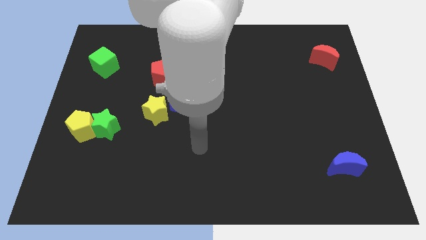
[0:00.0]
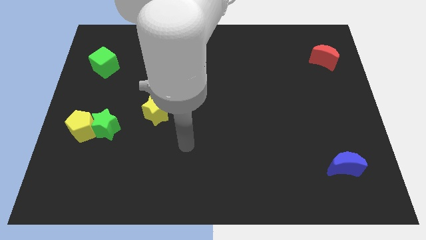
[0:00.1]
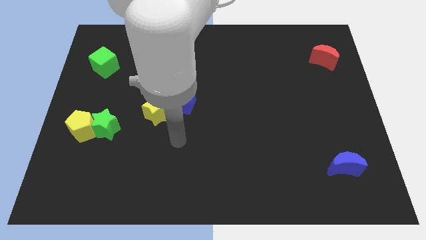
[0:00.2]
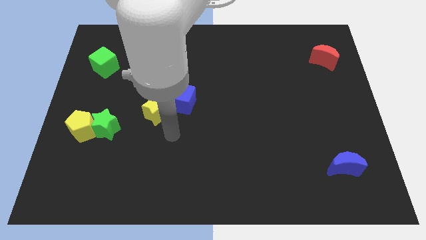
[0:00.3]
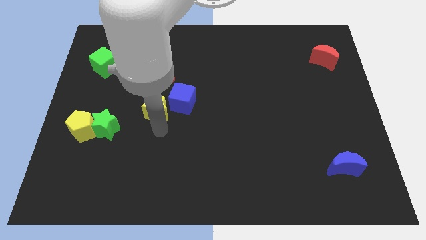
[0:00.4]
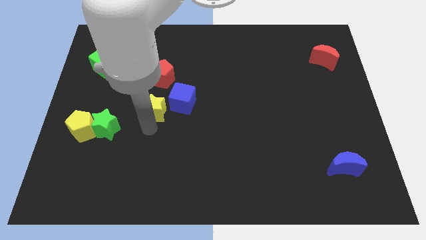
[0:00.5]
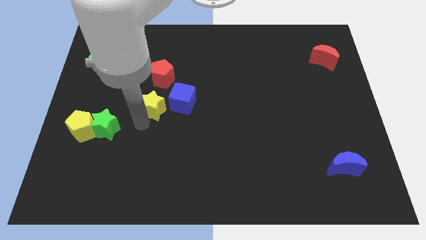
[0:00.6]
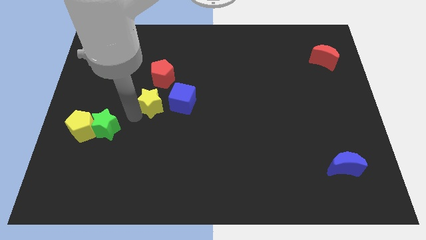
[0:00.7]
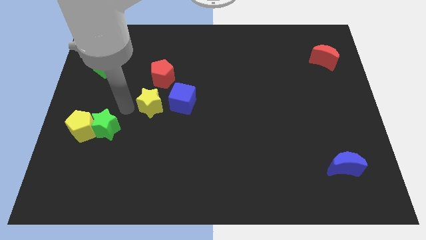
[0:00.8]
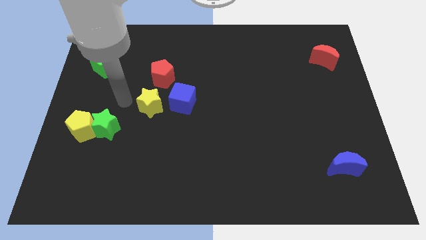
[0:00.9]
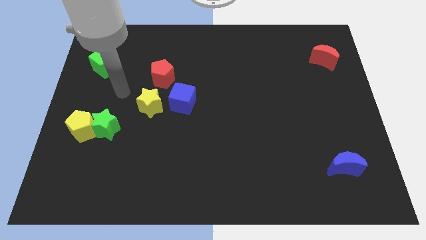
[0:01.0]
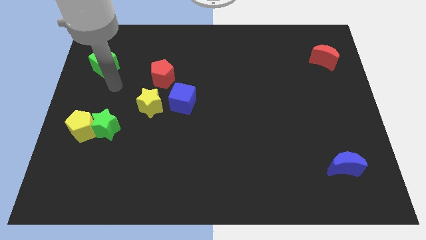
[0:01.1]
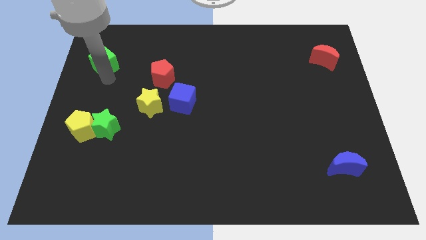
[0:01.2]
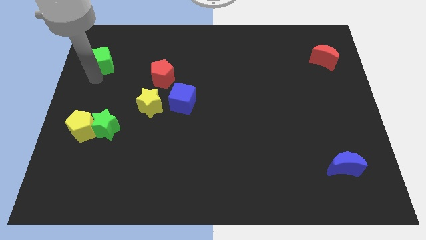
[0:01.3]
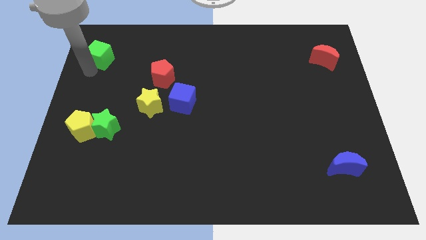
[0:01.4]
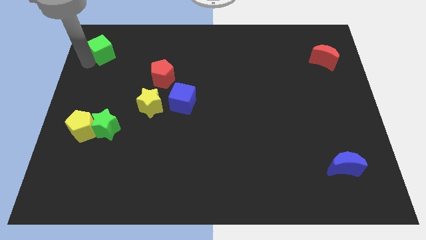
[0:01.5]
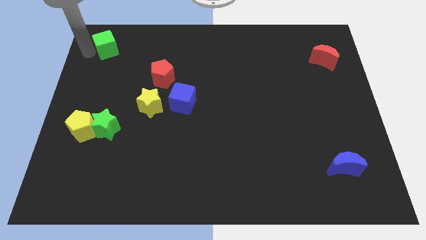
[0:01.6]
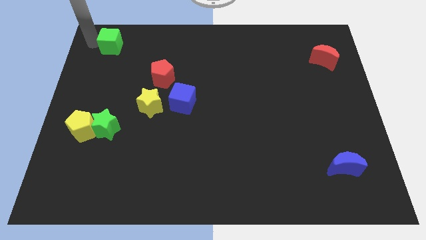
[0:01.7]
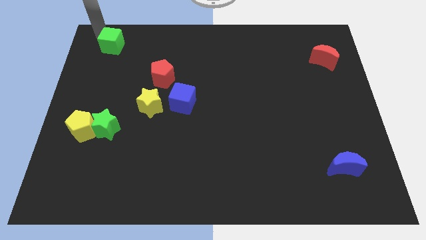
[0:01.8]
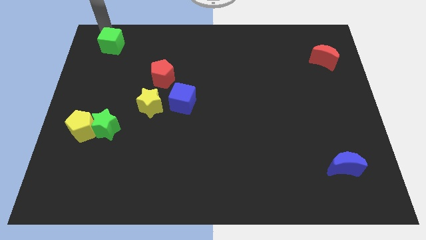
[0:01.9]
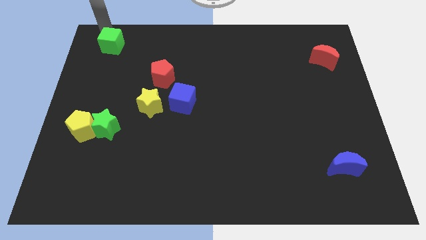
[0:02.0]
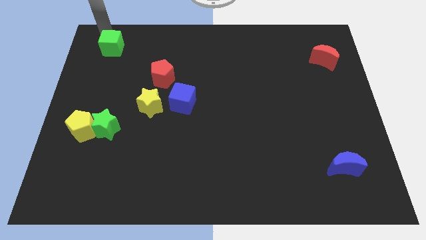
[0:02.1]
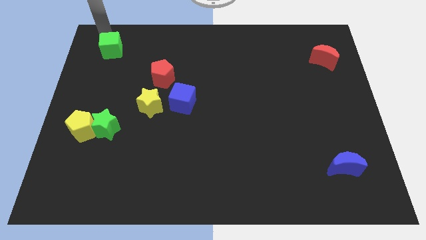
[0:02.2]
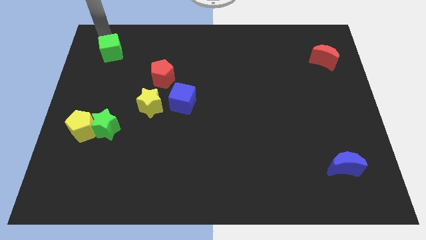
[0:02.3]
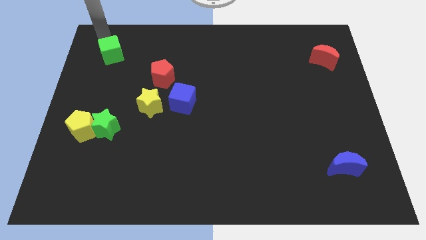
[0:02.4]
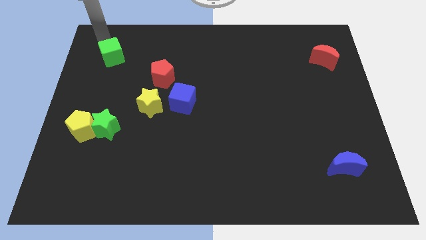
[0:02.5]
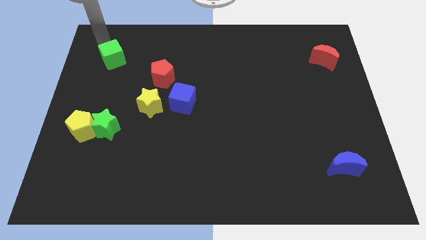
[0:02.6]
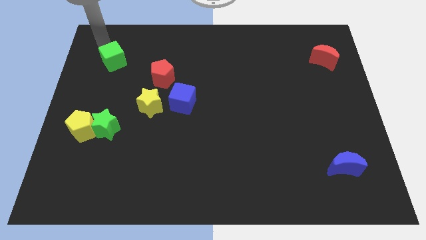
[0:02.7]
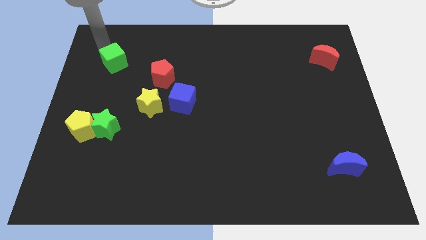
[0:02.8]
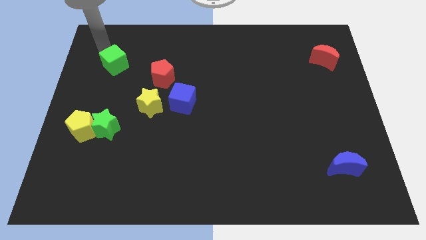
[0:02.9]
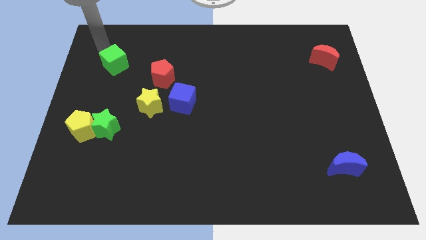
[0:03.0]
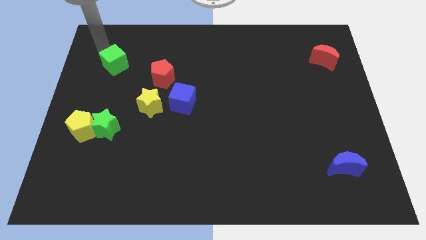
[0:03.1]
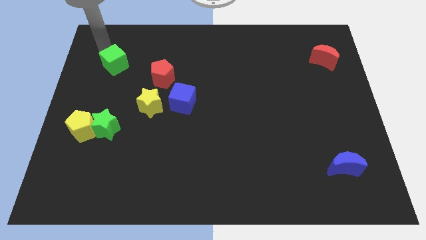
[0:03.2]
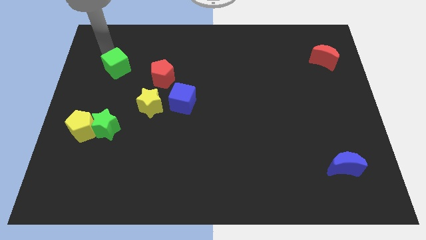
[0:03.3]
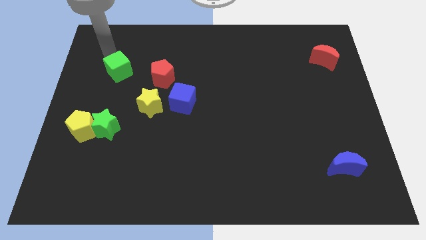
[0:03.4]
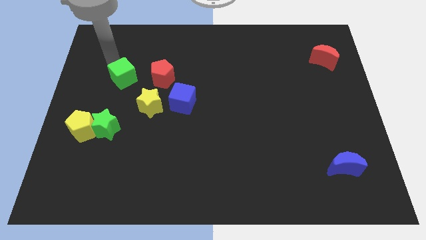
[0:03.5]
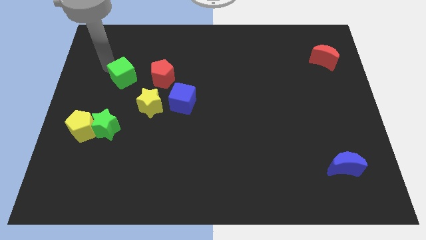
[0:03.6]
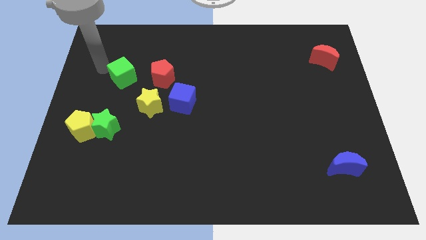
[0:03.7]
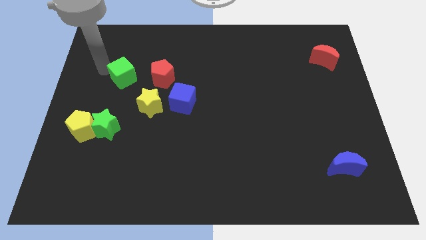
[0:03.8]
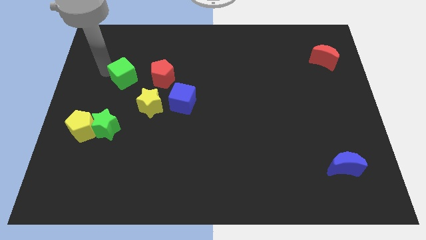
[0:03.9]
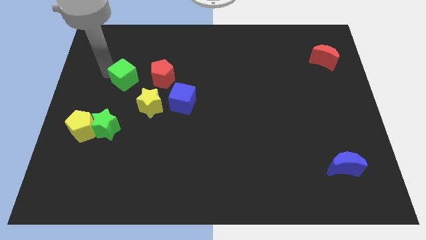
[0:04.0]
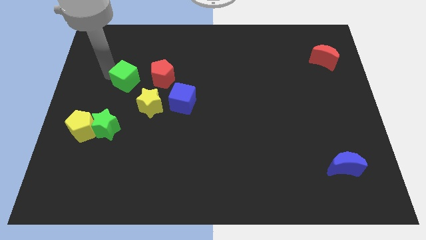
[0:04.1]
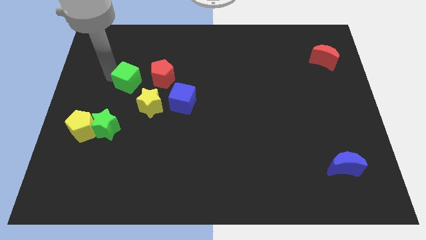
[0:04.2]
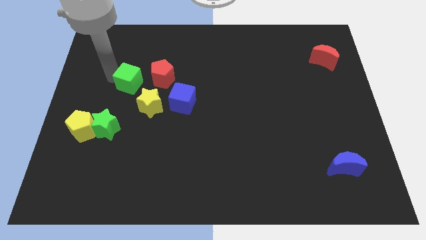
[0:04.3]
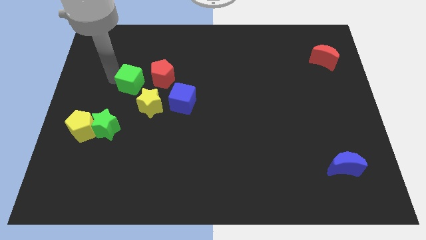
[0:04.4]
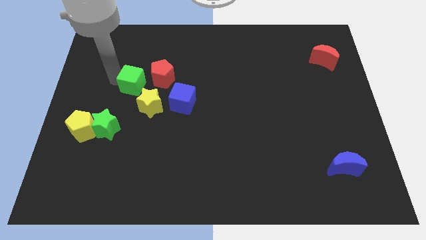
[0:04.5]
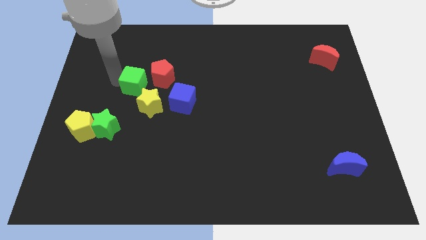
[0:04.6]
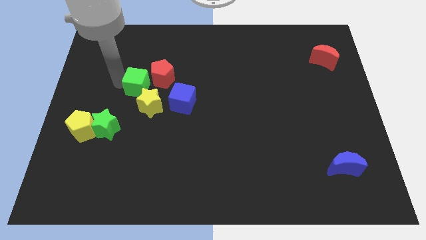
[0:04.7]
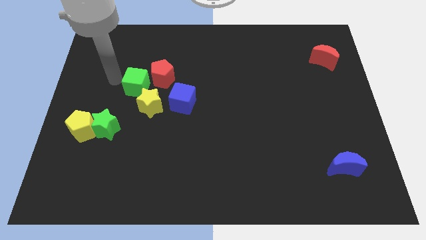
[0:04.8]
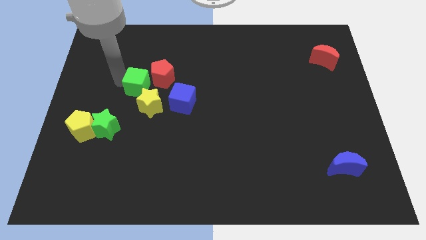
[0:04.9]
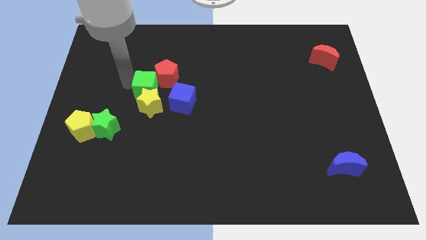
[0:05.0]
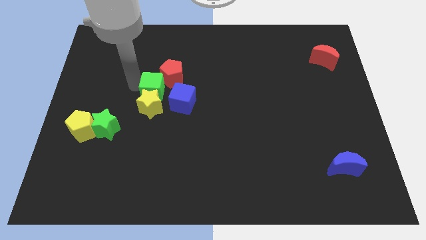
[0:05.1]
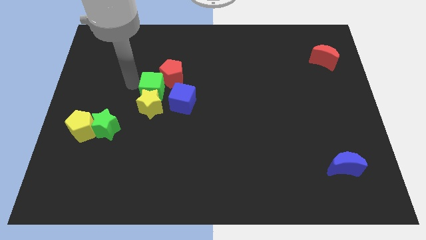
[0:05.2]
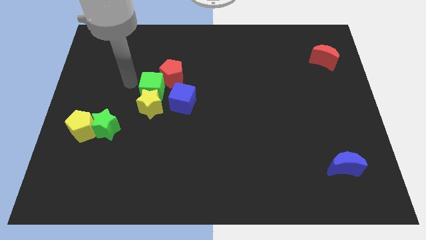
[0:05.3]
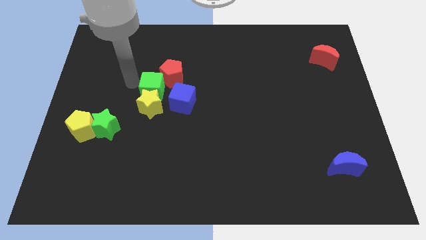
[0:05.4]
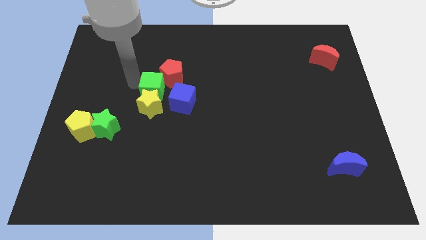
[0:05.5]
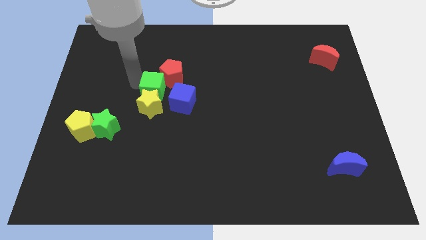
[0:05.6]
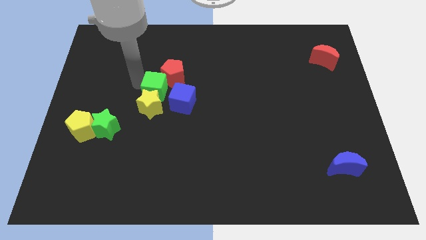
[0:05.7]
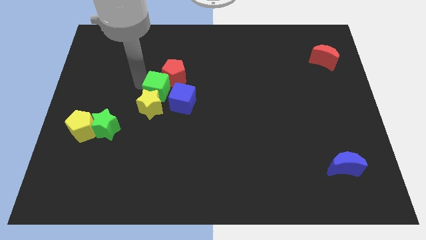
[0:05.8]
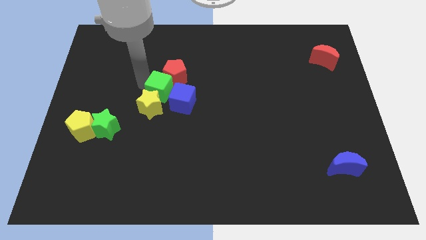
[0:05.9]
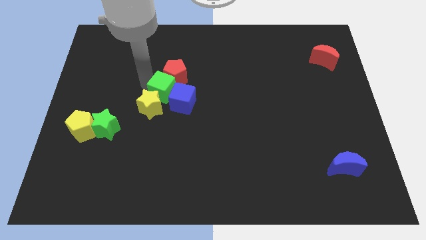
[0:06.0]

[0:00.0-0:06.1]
push the green cube towards the blue cube
